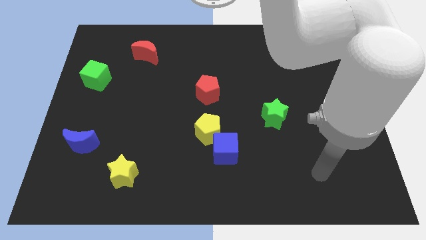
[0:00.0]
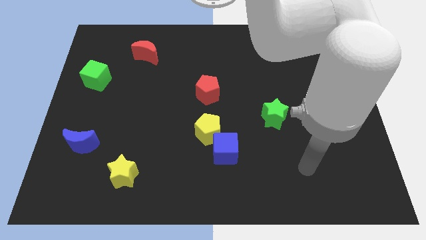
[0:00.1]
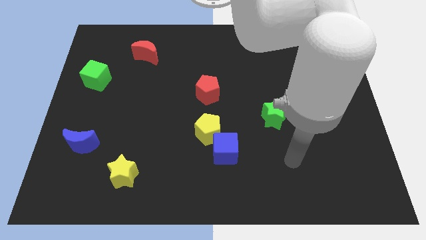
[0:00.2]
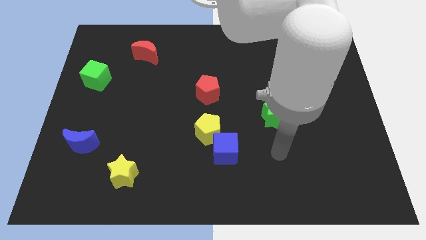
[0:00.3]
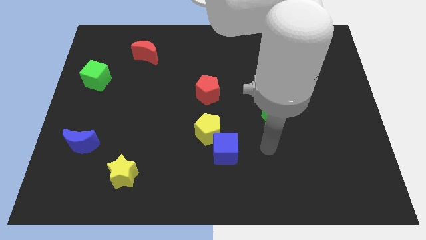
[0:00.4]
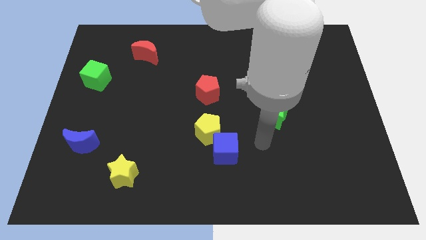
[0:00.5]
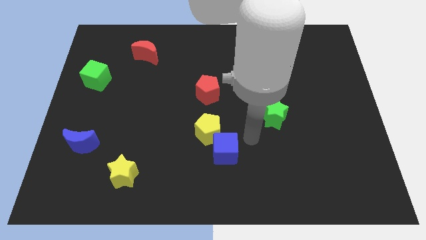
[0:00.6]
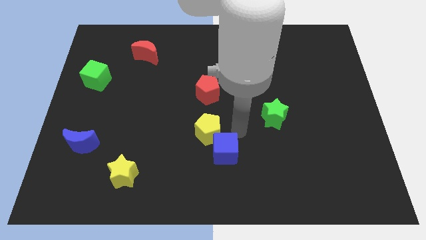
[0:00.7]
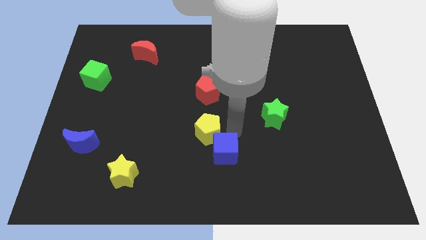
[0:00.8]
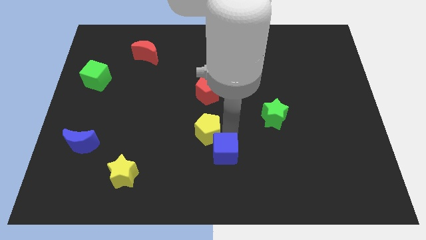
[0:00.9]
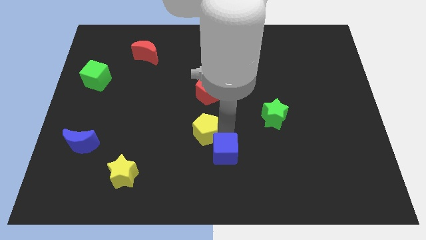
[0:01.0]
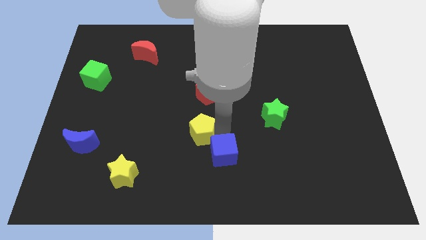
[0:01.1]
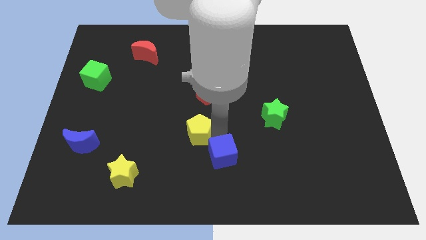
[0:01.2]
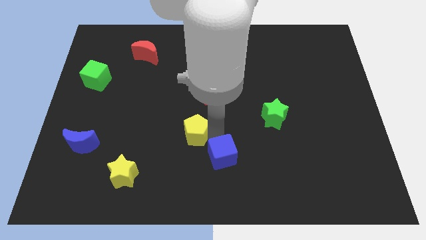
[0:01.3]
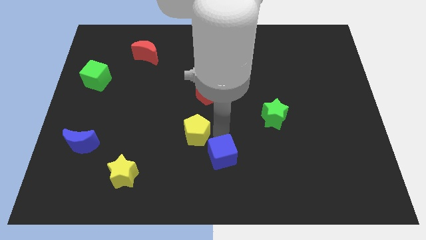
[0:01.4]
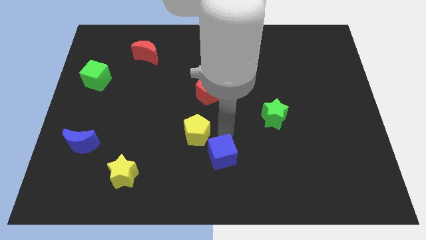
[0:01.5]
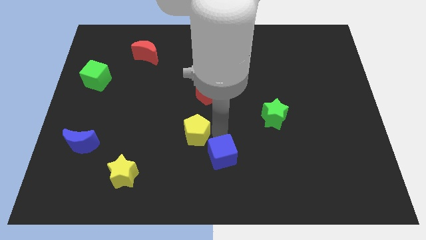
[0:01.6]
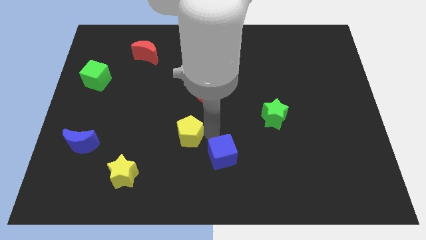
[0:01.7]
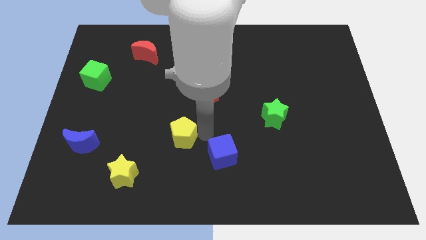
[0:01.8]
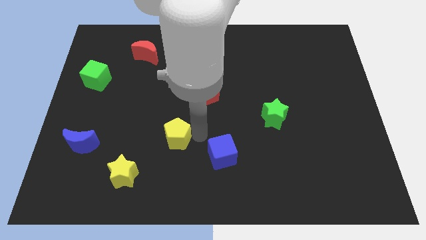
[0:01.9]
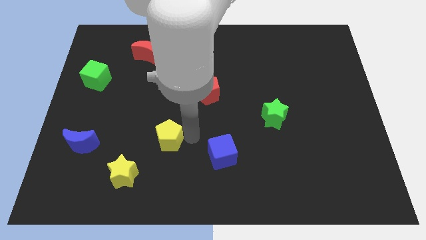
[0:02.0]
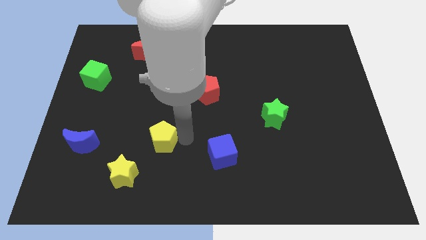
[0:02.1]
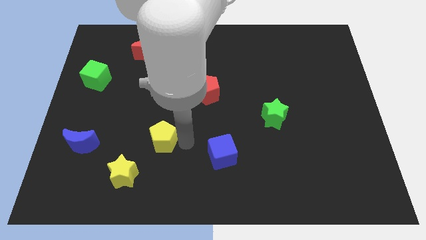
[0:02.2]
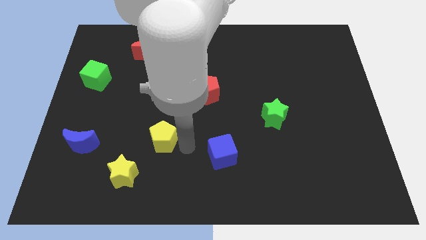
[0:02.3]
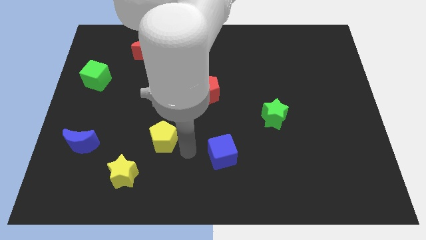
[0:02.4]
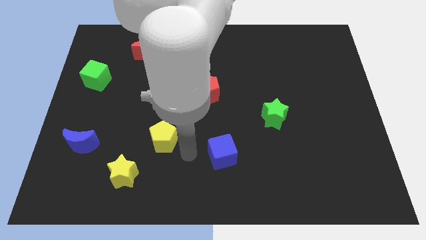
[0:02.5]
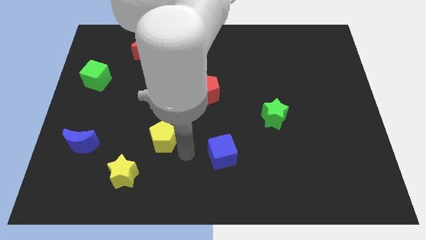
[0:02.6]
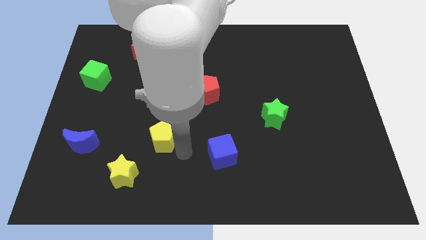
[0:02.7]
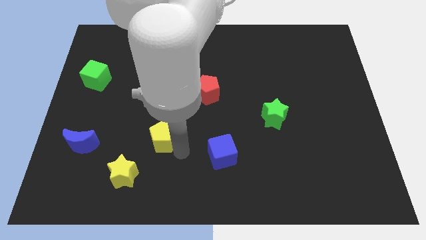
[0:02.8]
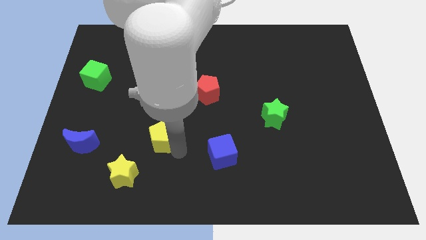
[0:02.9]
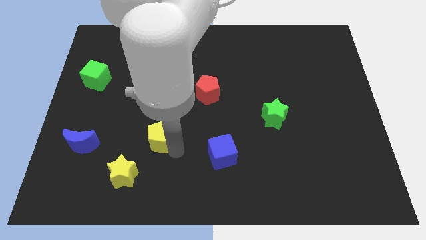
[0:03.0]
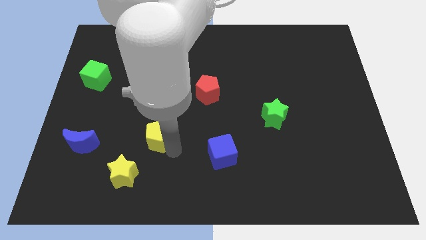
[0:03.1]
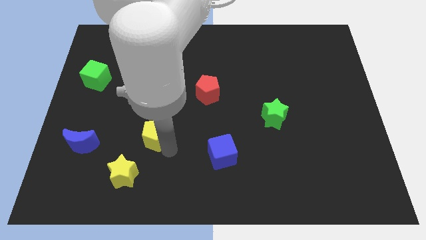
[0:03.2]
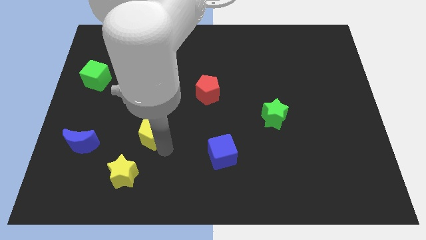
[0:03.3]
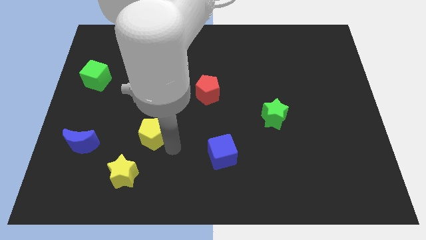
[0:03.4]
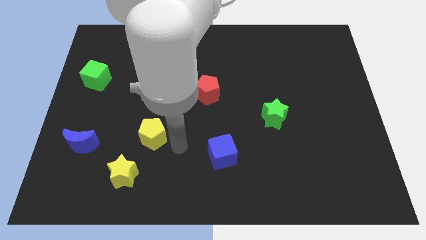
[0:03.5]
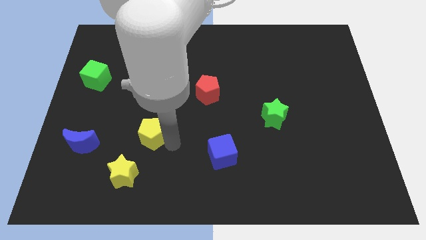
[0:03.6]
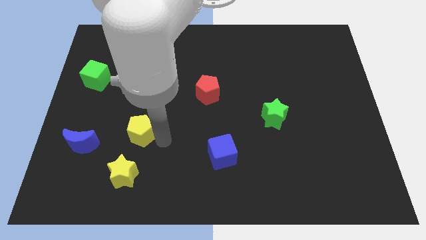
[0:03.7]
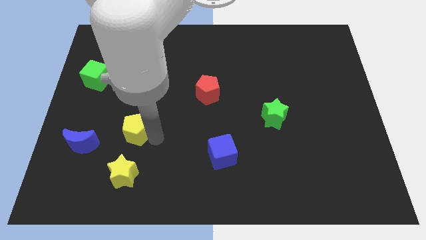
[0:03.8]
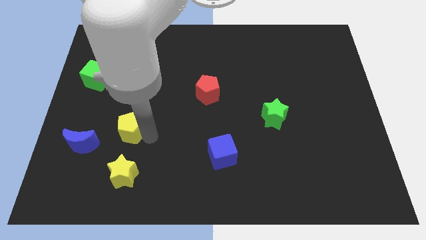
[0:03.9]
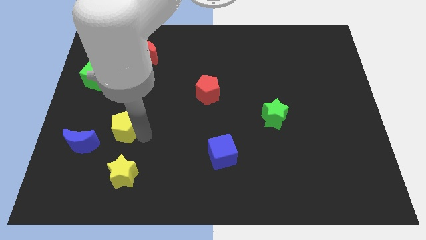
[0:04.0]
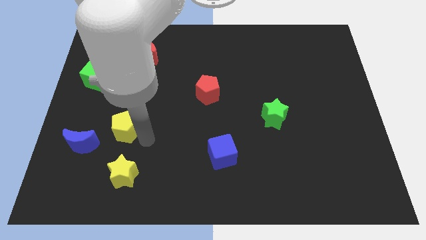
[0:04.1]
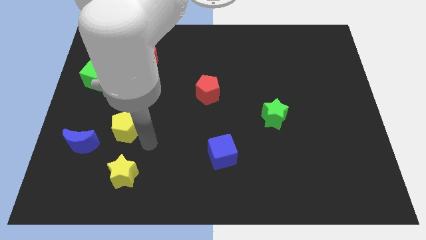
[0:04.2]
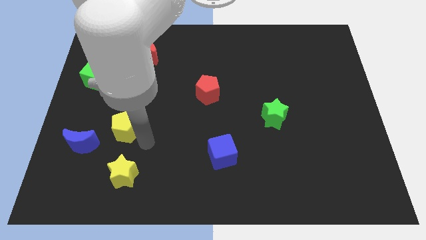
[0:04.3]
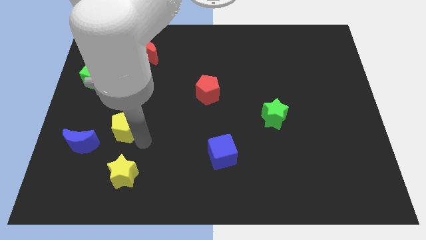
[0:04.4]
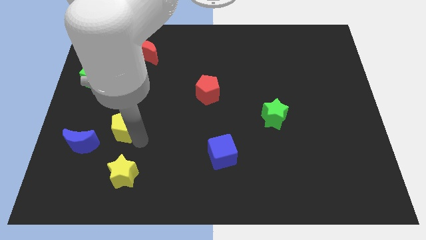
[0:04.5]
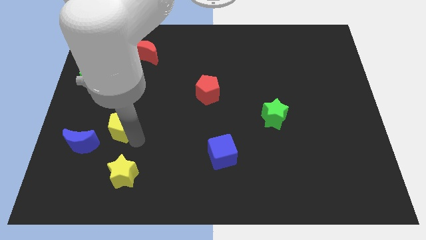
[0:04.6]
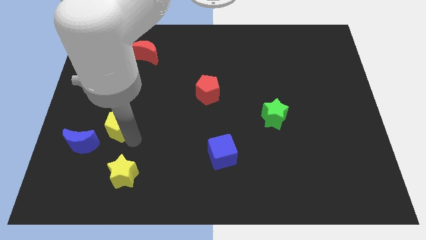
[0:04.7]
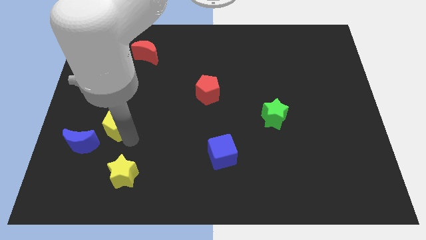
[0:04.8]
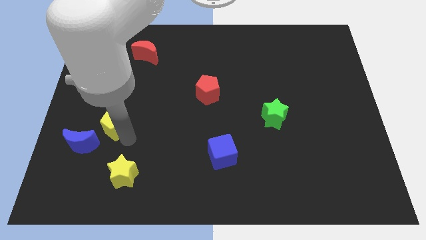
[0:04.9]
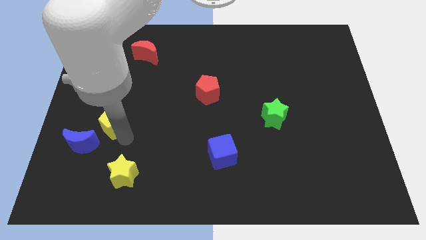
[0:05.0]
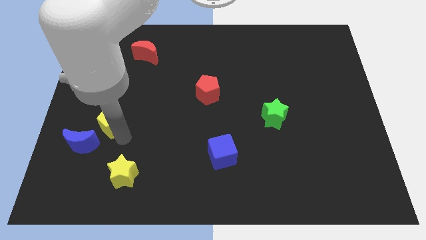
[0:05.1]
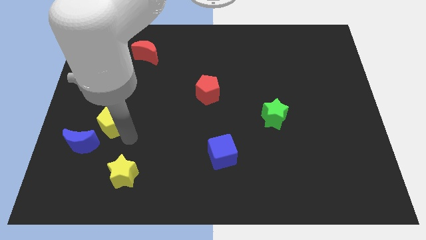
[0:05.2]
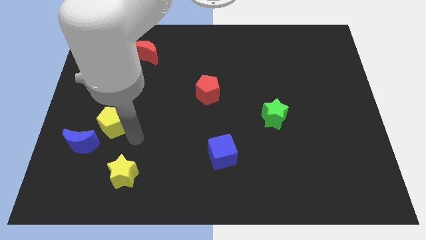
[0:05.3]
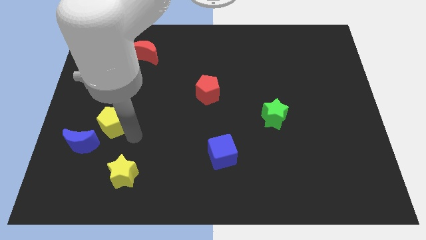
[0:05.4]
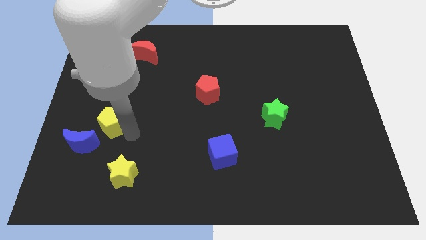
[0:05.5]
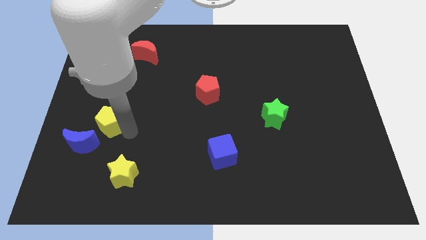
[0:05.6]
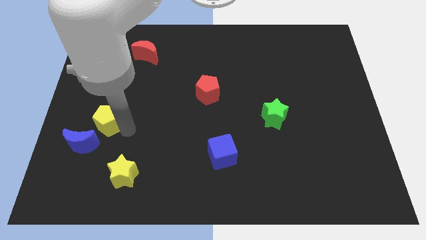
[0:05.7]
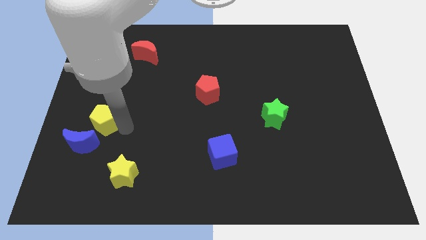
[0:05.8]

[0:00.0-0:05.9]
push the yellow pentagon to the bottom of the green cube

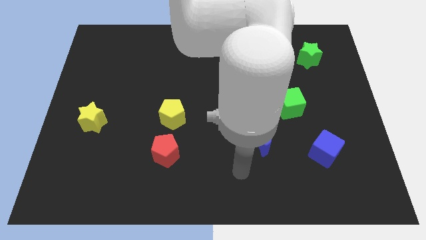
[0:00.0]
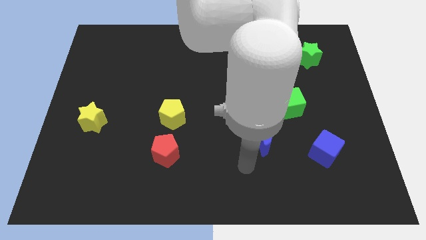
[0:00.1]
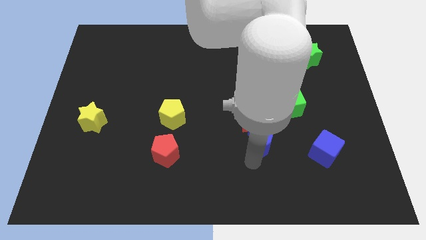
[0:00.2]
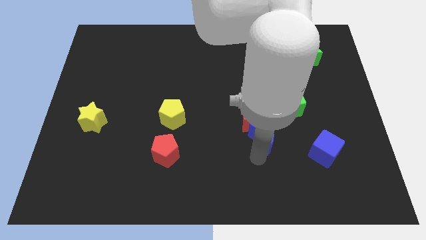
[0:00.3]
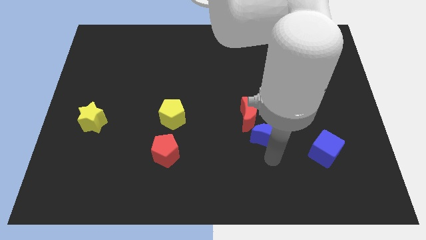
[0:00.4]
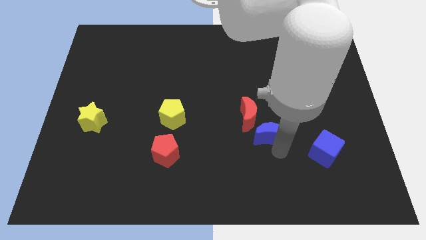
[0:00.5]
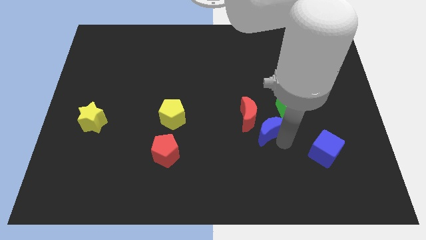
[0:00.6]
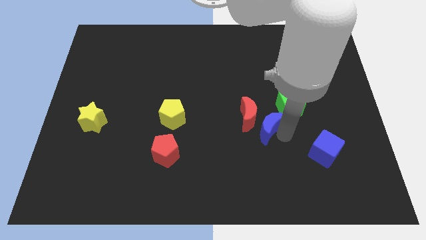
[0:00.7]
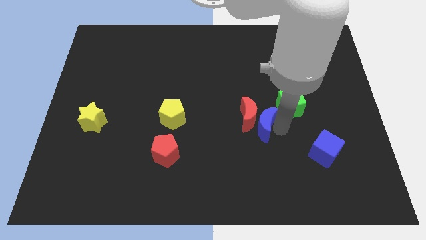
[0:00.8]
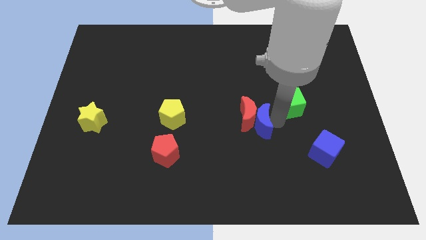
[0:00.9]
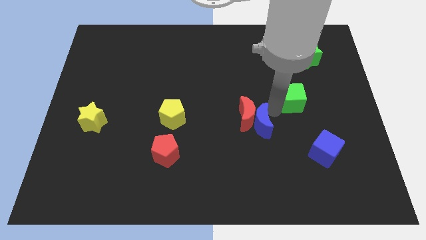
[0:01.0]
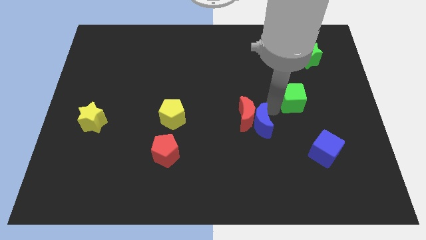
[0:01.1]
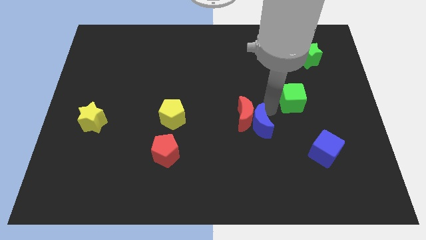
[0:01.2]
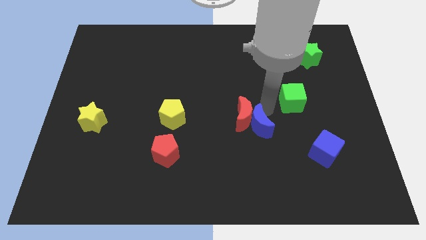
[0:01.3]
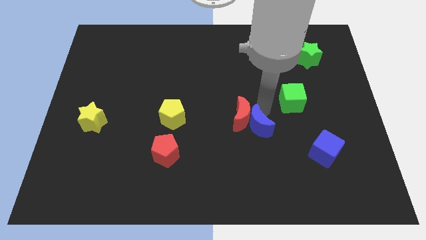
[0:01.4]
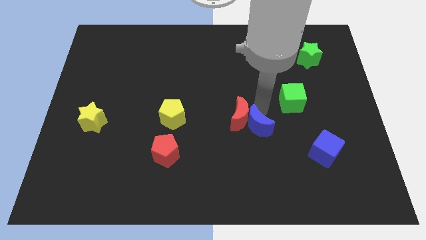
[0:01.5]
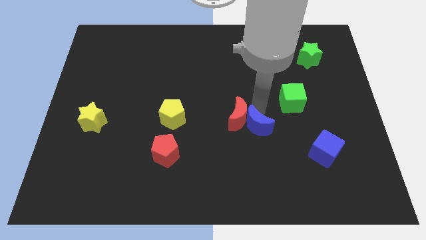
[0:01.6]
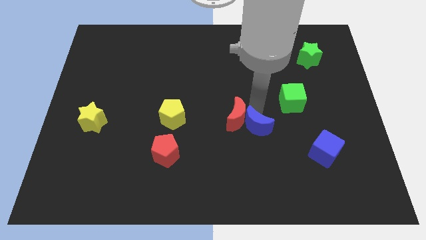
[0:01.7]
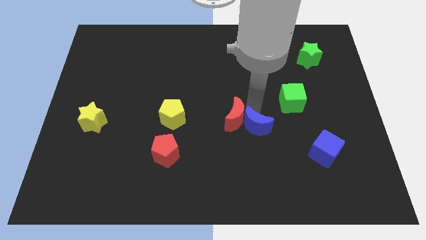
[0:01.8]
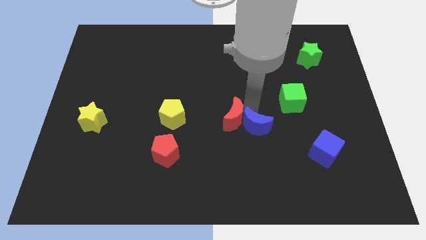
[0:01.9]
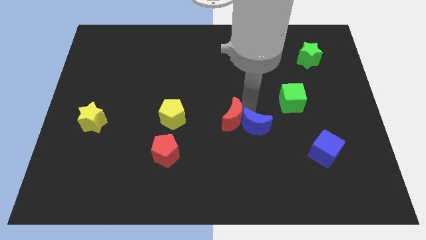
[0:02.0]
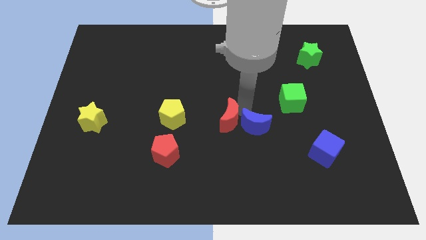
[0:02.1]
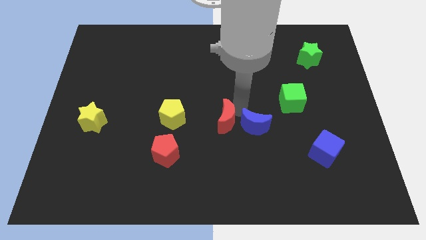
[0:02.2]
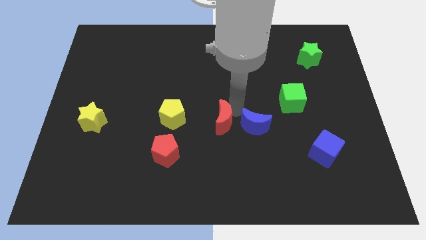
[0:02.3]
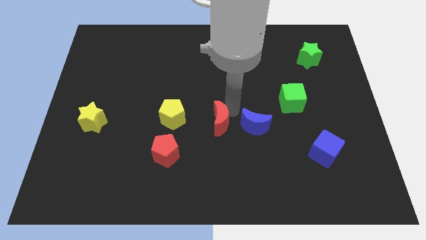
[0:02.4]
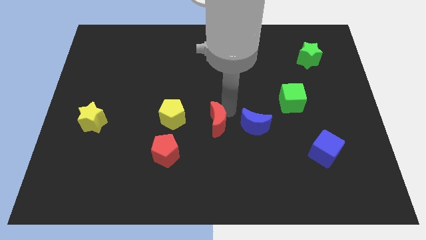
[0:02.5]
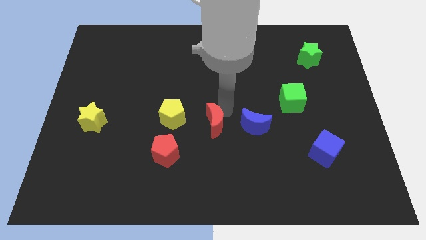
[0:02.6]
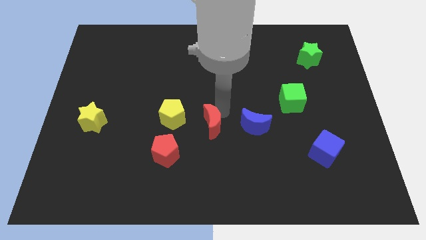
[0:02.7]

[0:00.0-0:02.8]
move the red moon to the top right of the red pentagon
